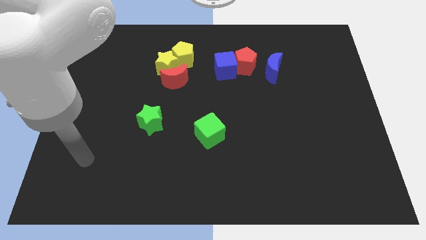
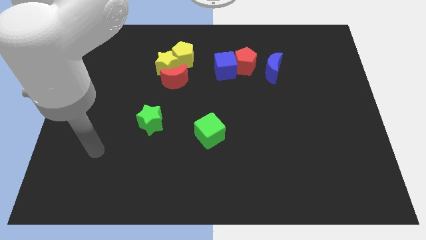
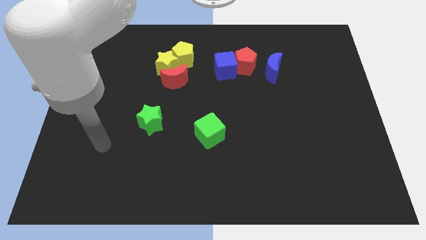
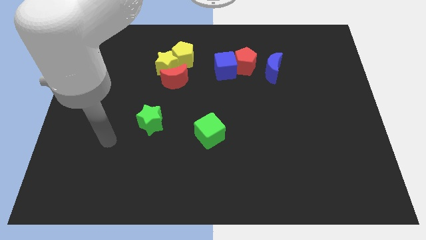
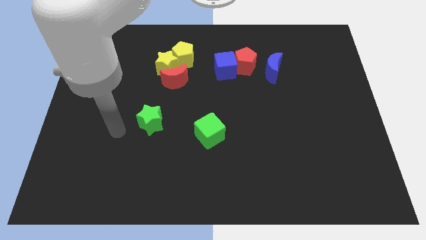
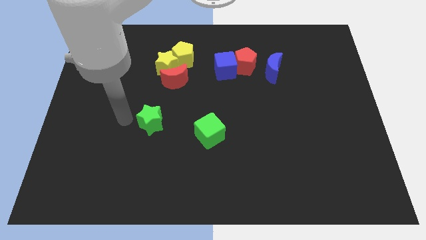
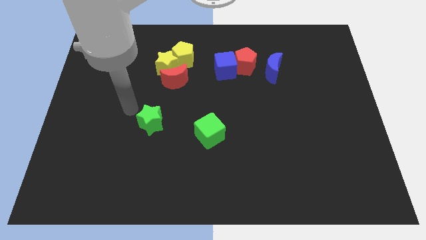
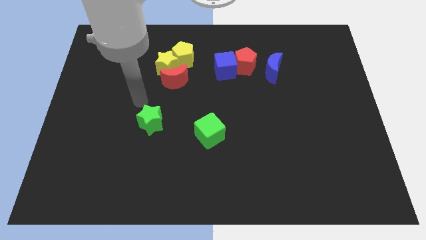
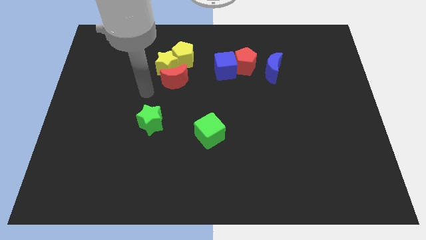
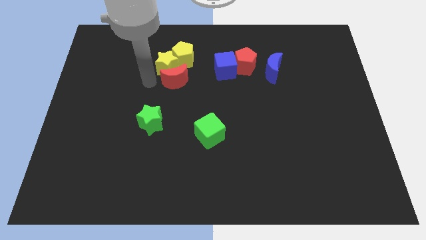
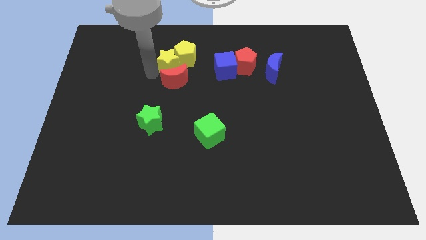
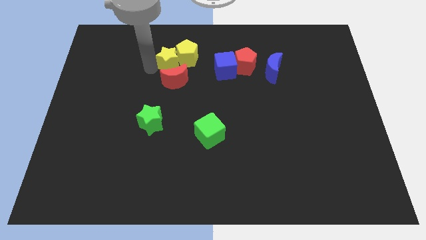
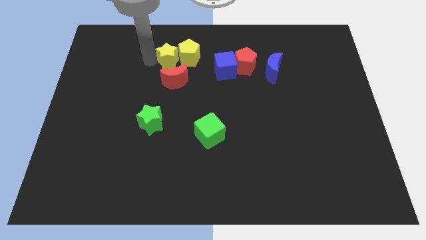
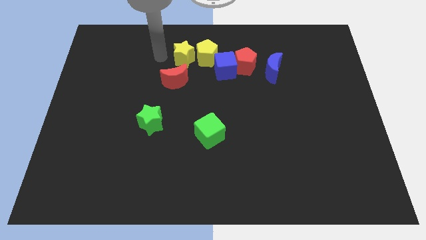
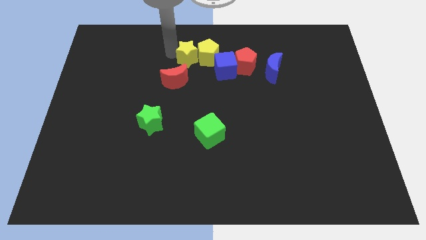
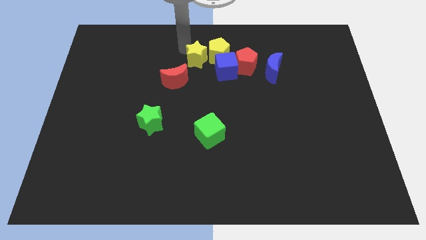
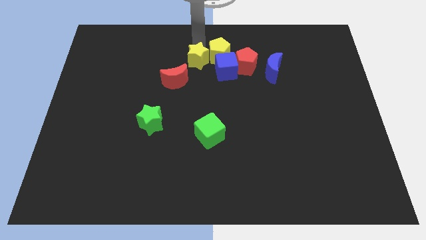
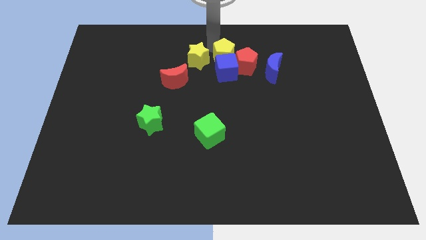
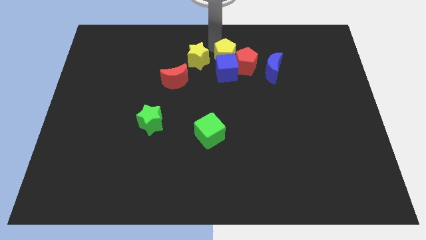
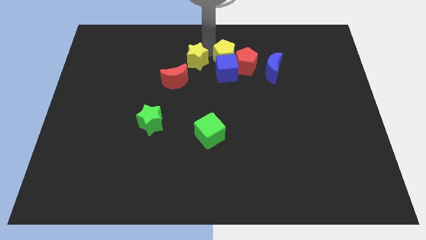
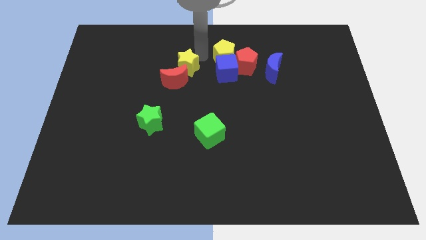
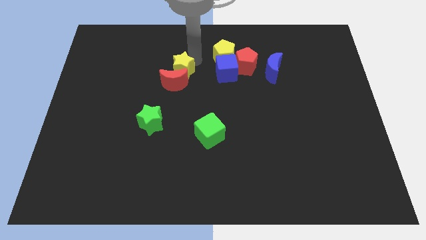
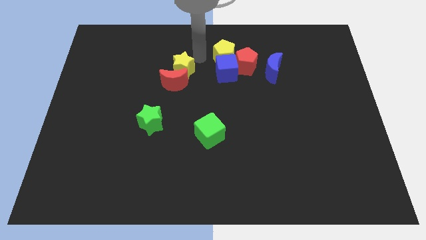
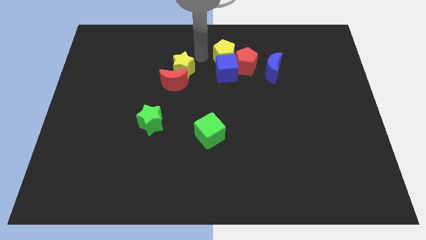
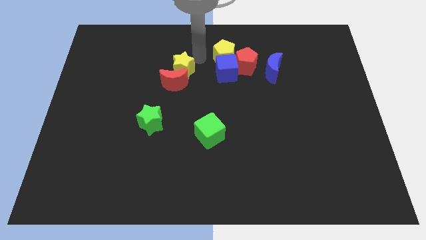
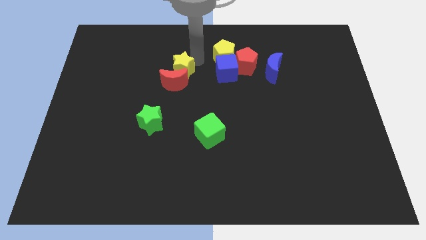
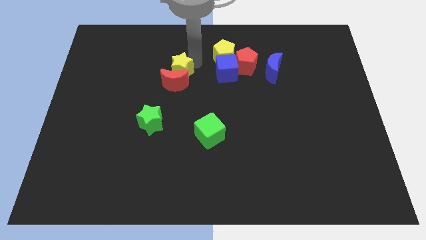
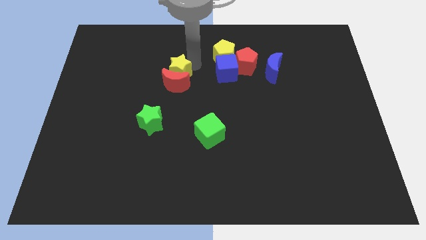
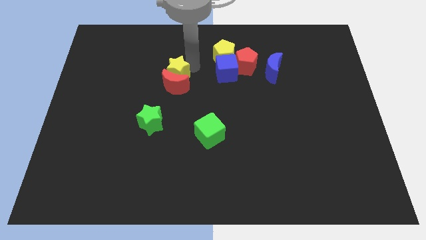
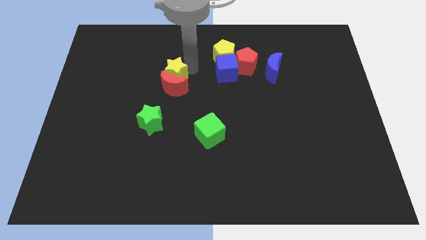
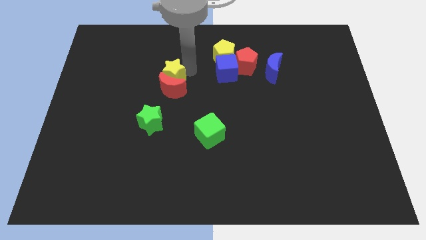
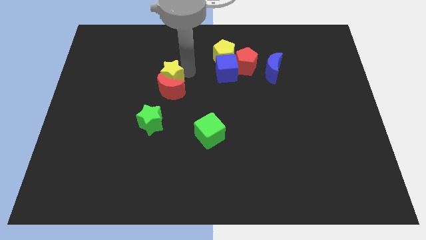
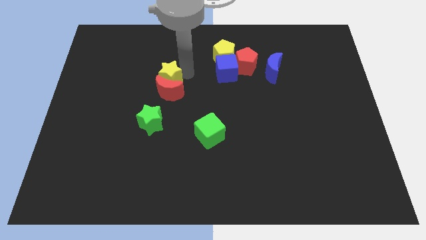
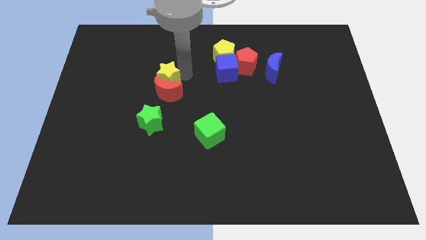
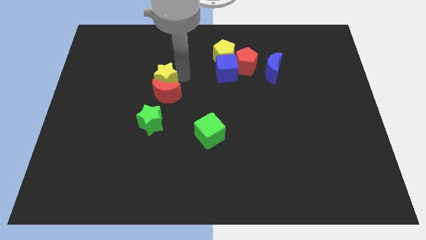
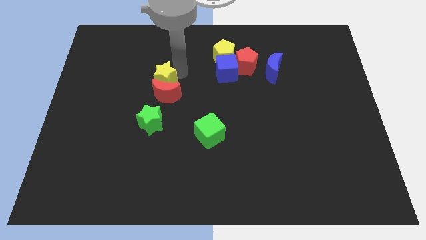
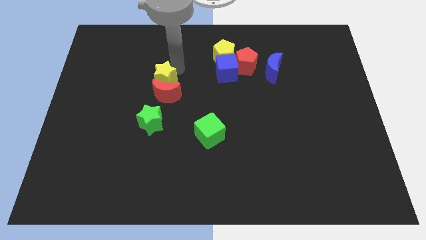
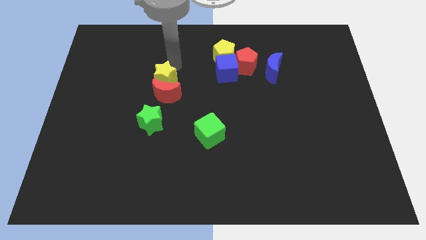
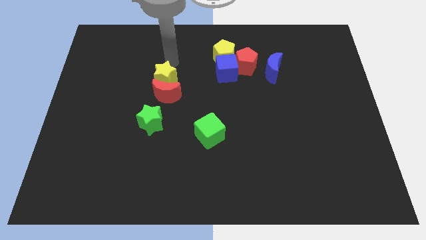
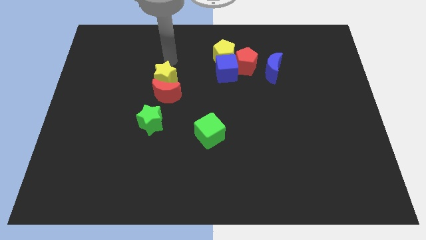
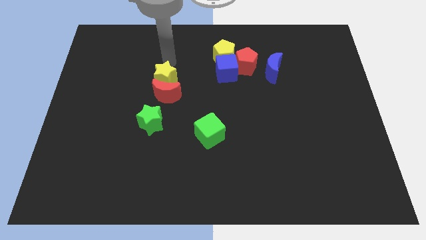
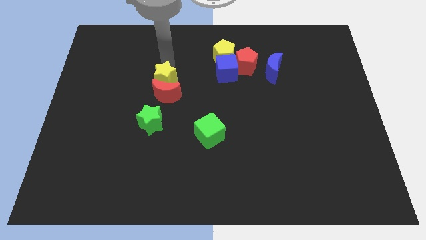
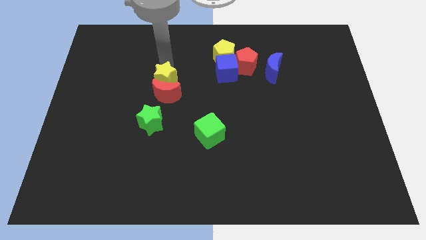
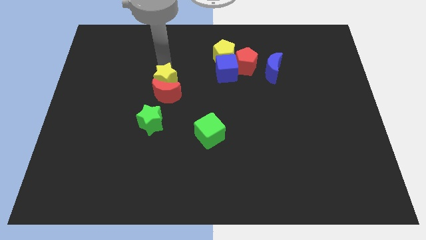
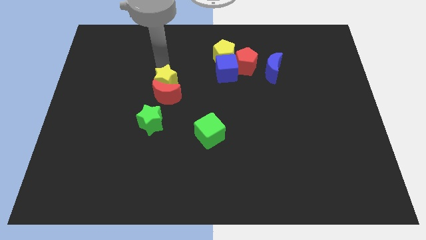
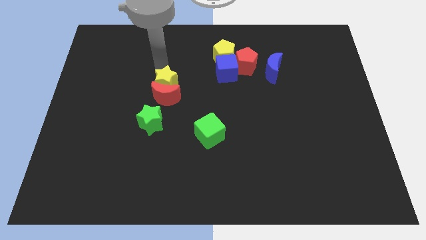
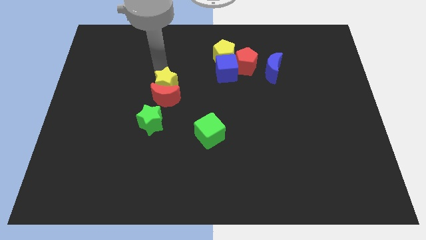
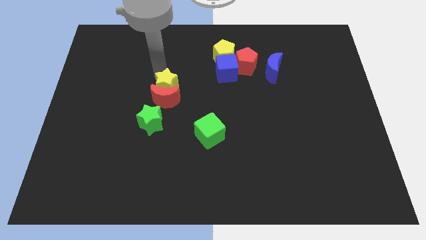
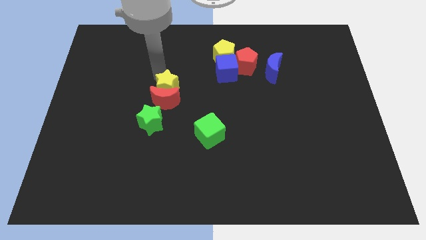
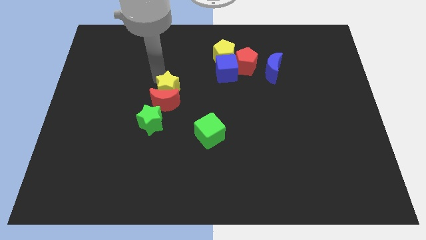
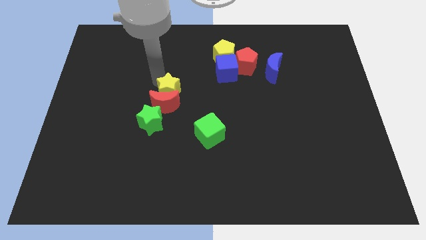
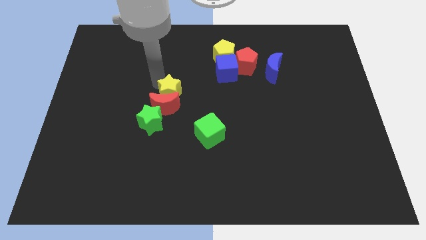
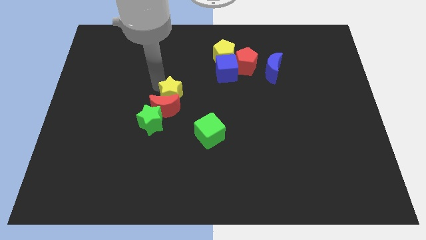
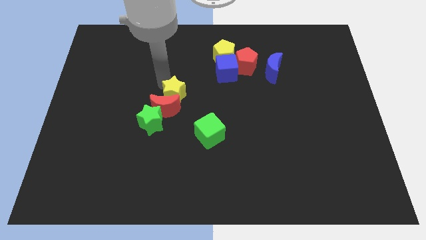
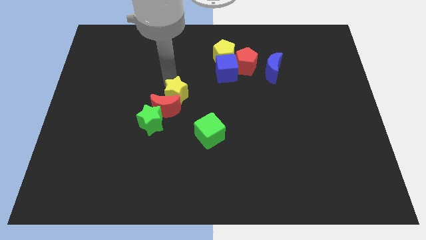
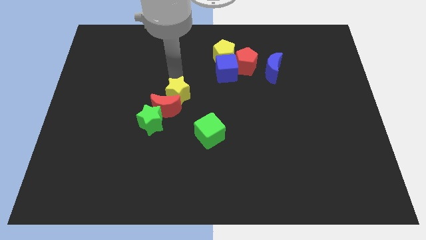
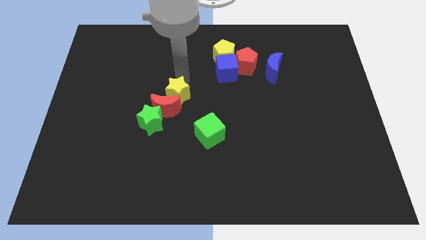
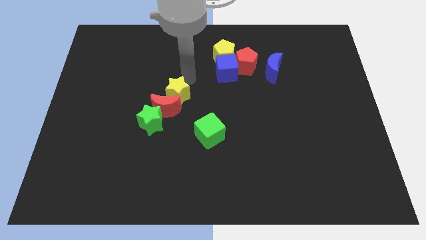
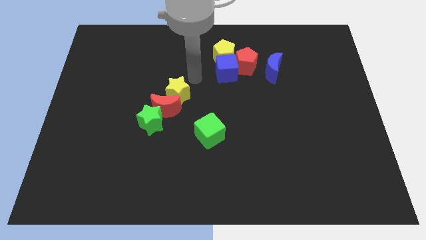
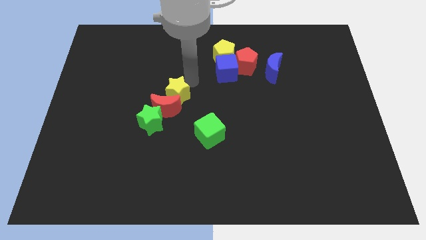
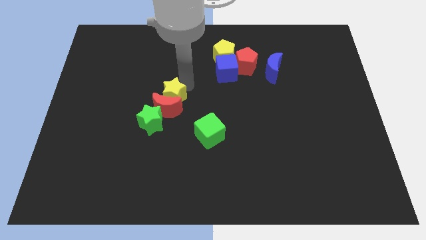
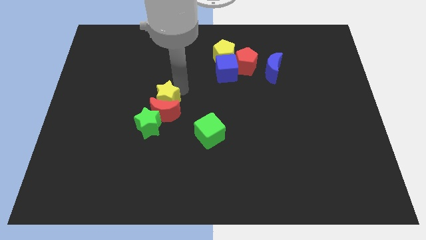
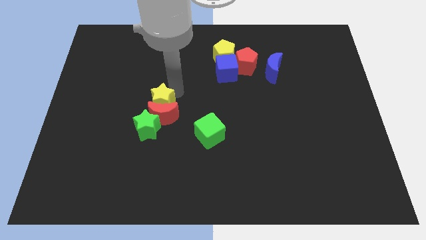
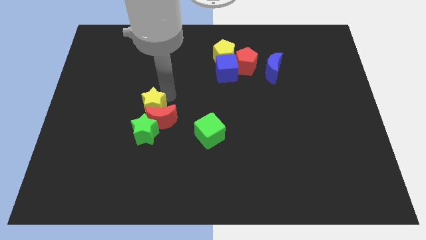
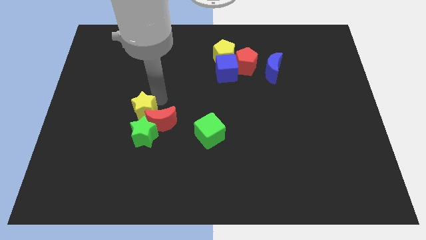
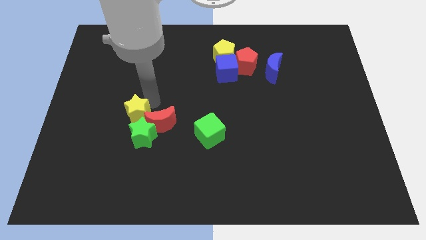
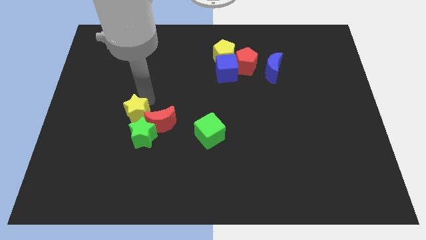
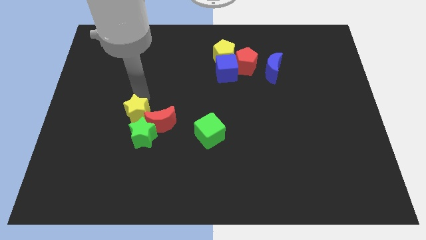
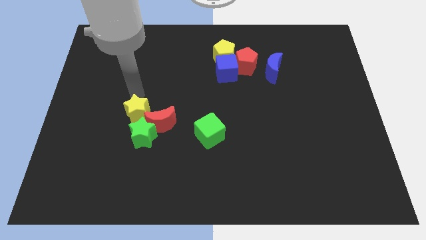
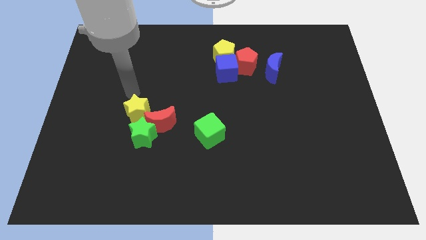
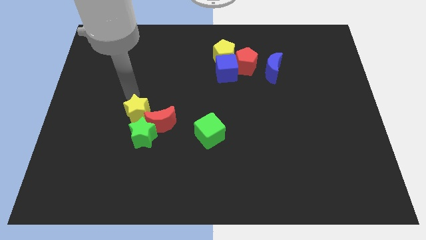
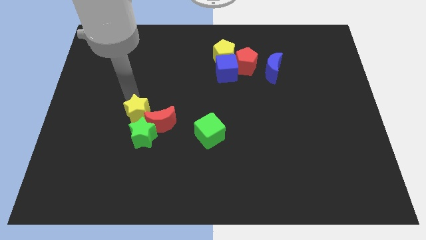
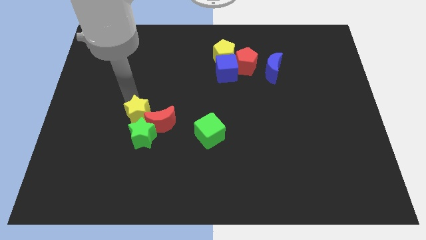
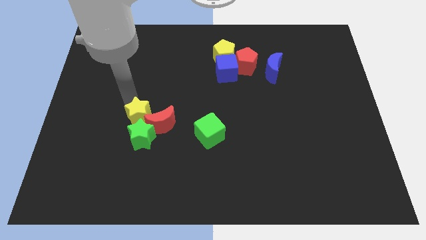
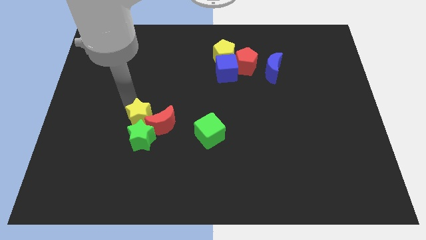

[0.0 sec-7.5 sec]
put the yellow star to the green star
